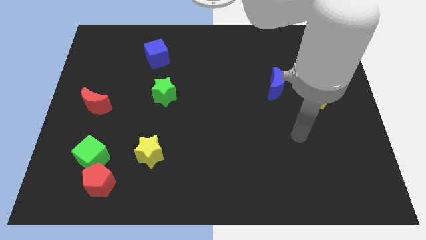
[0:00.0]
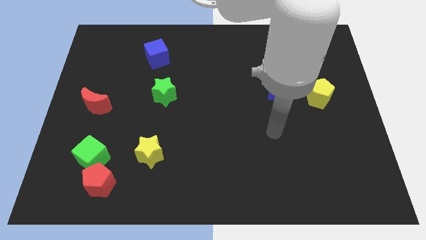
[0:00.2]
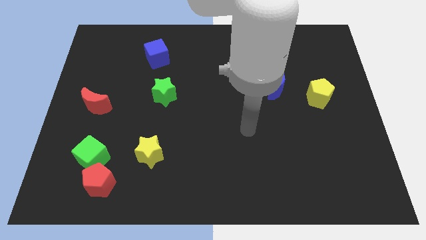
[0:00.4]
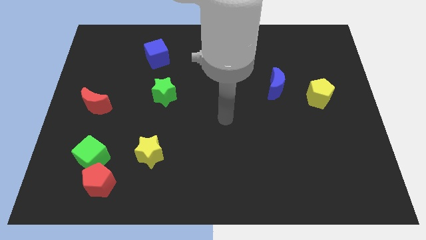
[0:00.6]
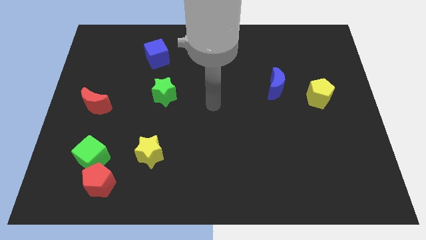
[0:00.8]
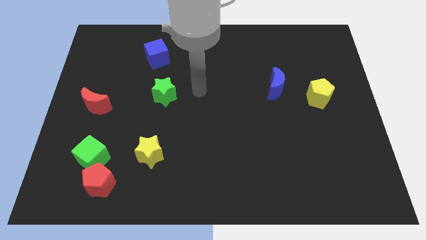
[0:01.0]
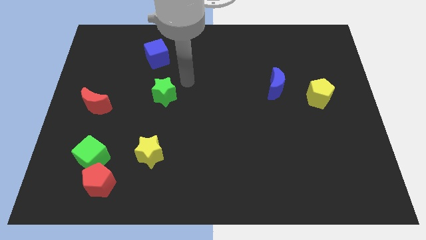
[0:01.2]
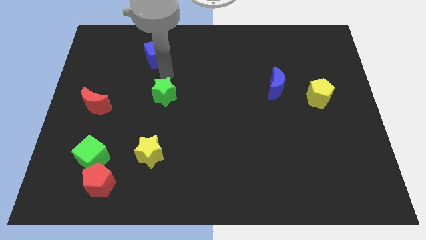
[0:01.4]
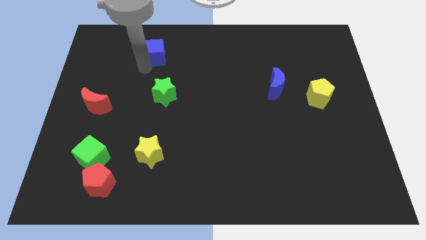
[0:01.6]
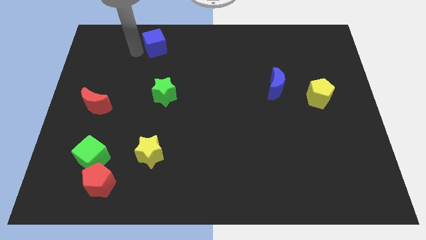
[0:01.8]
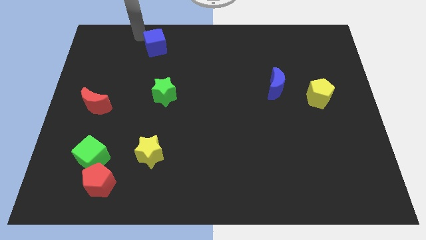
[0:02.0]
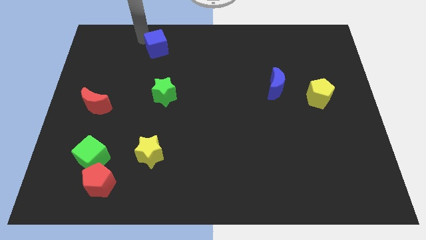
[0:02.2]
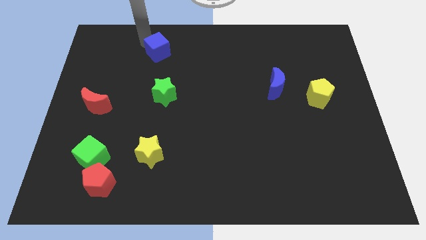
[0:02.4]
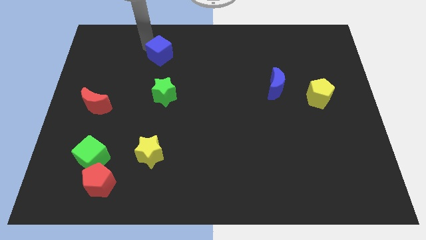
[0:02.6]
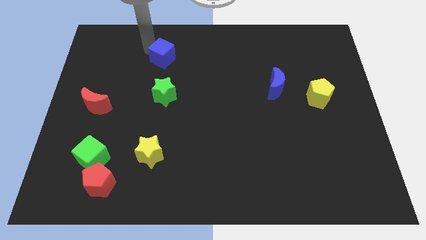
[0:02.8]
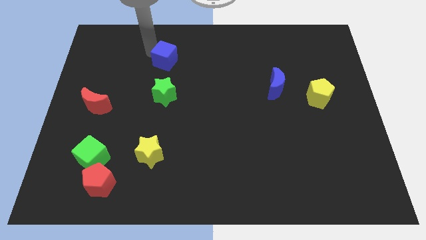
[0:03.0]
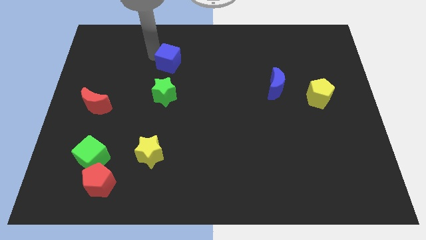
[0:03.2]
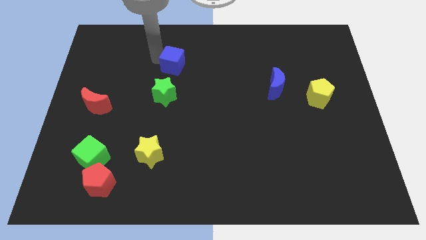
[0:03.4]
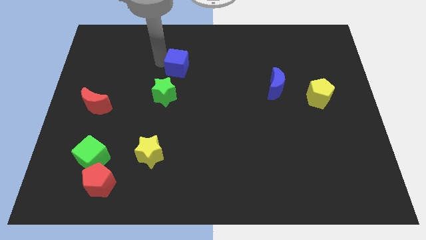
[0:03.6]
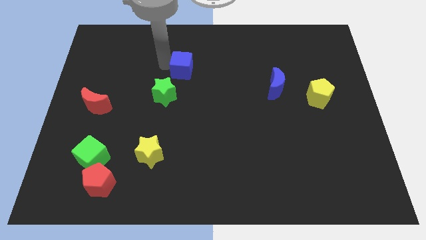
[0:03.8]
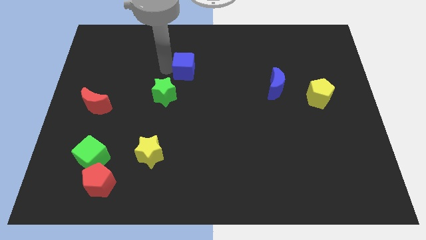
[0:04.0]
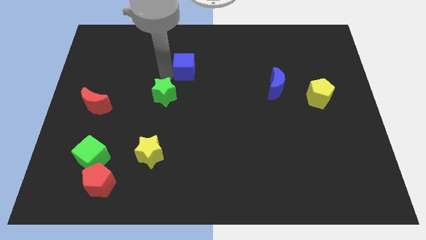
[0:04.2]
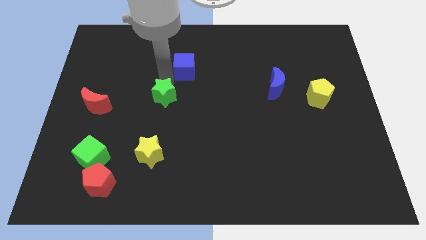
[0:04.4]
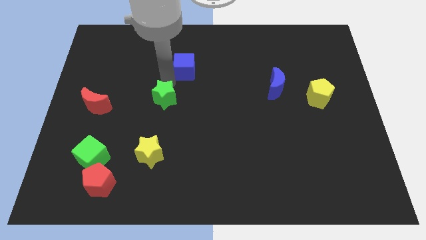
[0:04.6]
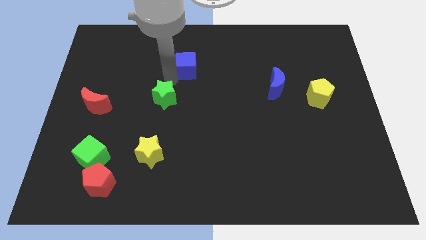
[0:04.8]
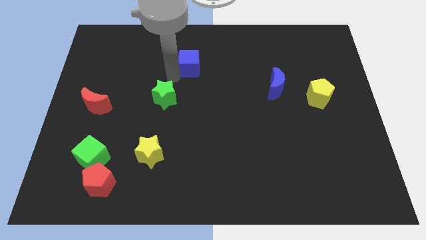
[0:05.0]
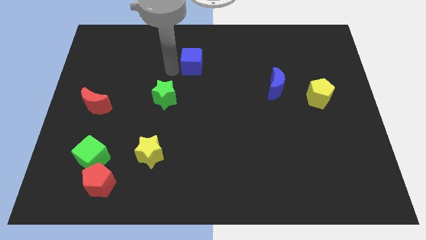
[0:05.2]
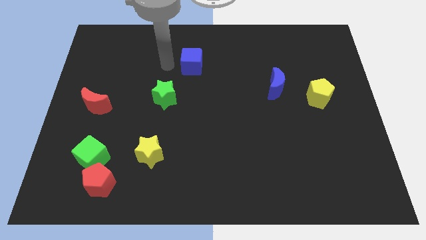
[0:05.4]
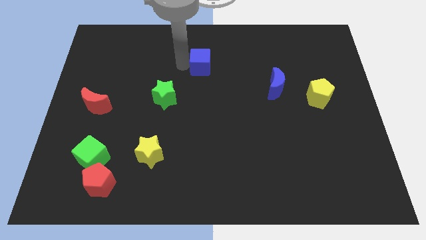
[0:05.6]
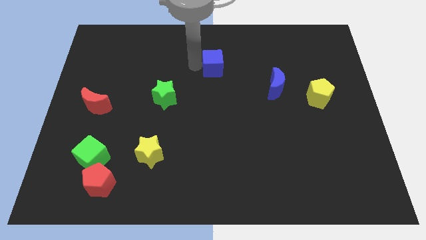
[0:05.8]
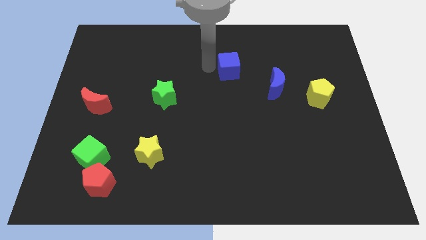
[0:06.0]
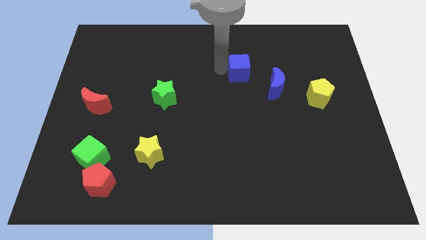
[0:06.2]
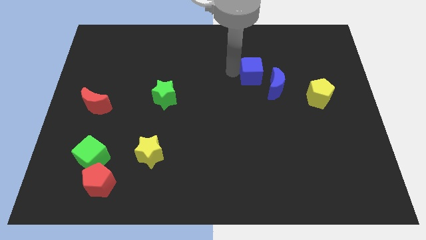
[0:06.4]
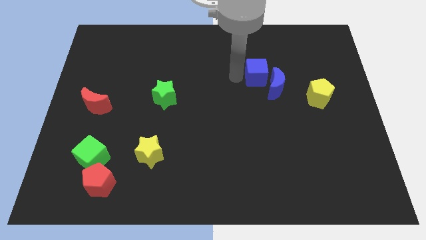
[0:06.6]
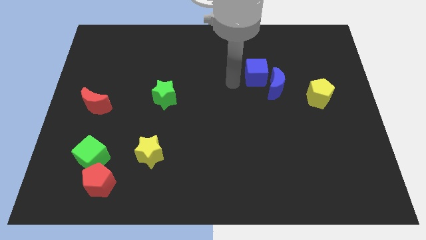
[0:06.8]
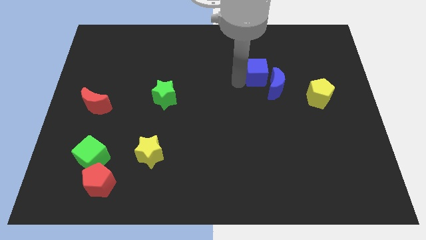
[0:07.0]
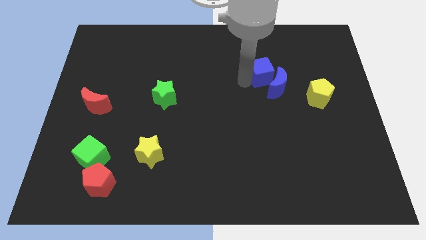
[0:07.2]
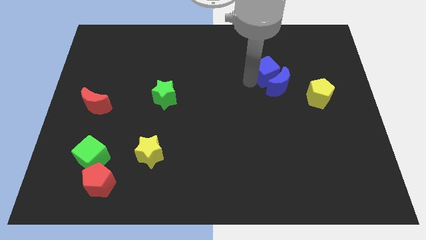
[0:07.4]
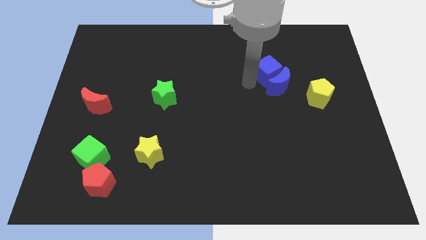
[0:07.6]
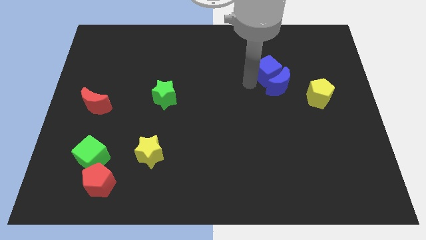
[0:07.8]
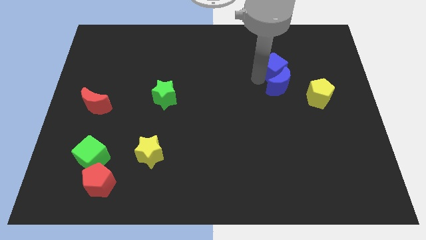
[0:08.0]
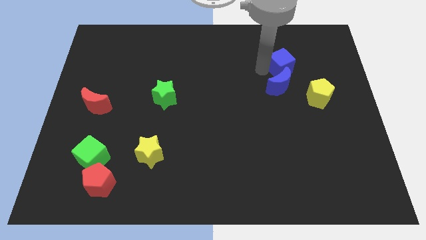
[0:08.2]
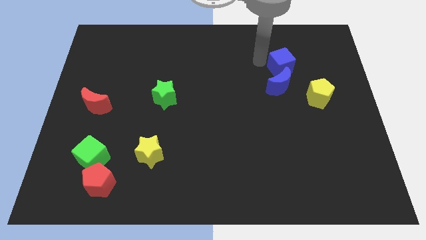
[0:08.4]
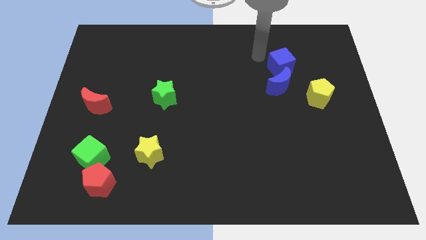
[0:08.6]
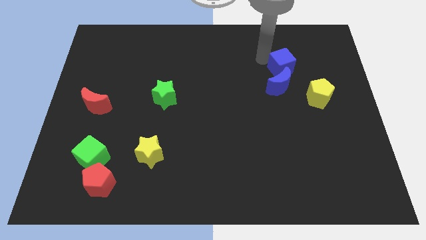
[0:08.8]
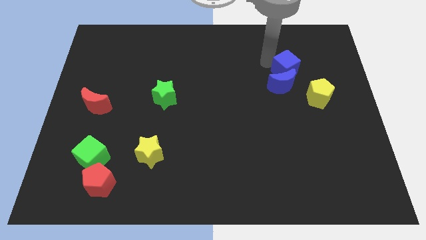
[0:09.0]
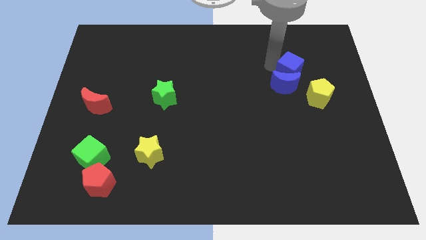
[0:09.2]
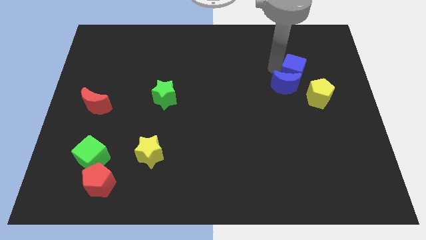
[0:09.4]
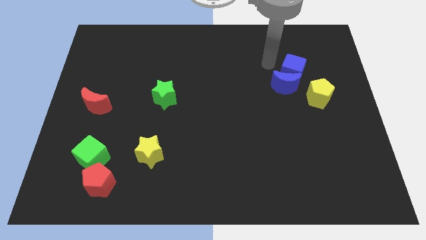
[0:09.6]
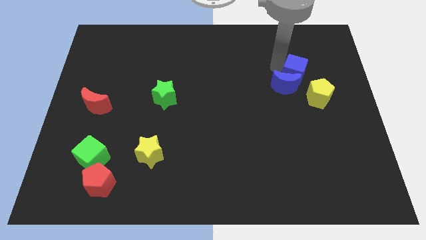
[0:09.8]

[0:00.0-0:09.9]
push the blue cube right of the blue moon

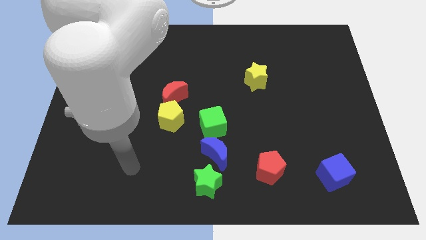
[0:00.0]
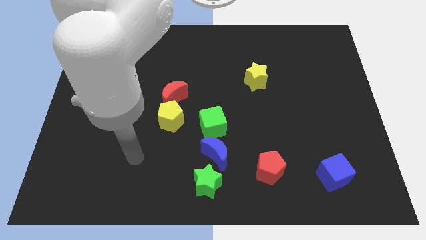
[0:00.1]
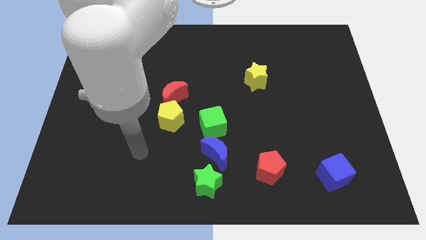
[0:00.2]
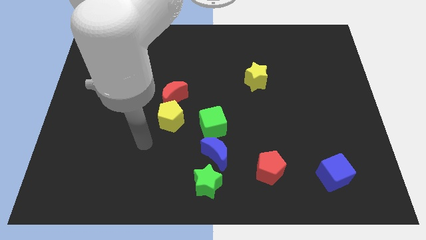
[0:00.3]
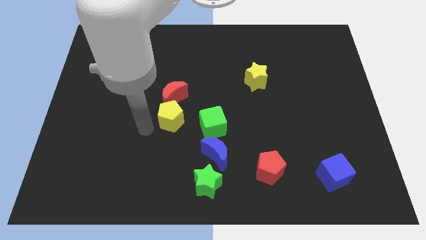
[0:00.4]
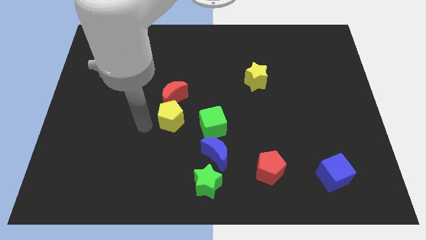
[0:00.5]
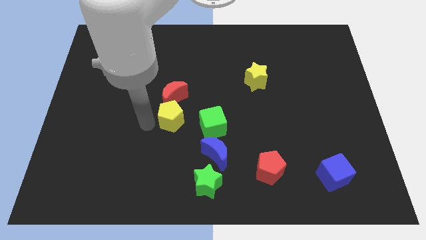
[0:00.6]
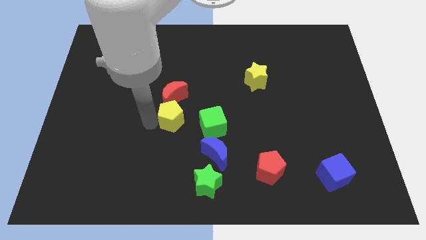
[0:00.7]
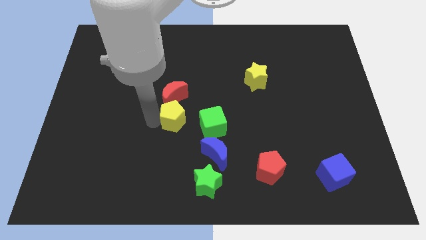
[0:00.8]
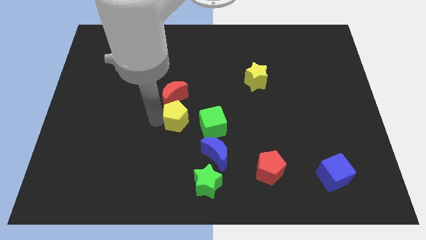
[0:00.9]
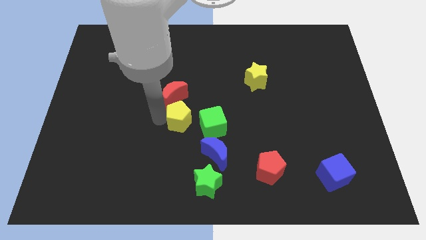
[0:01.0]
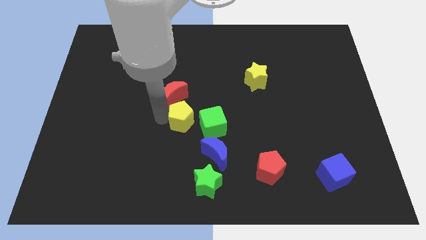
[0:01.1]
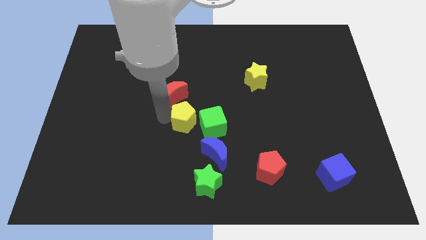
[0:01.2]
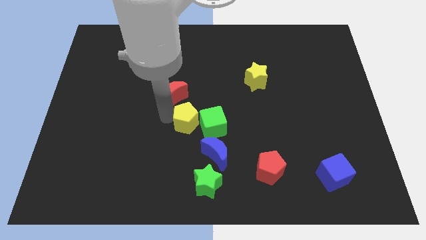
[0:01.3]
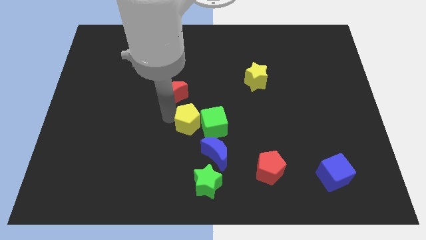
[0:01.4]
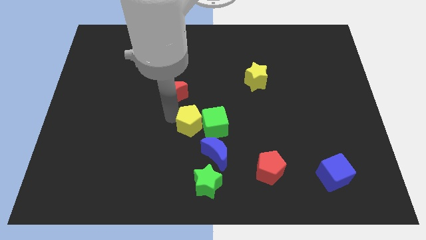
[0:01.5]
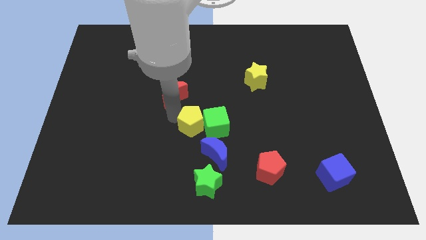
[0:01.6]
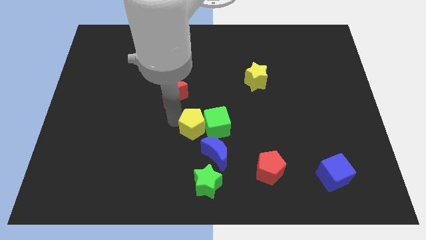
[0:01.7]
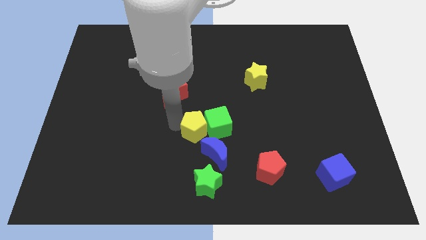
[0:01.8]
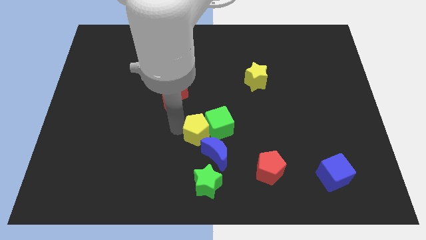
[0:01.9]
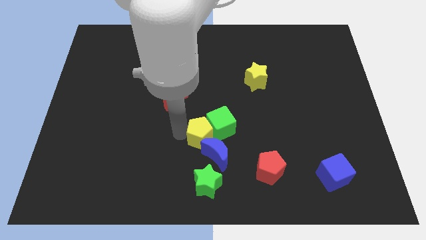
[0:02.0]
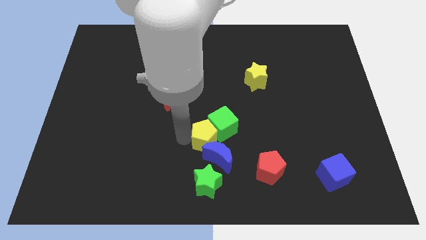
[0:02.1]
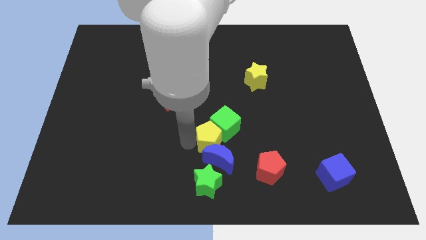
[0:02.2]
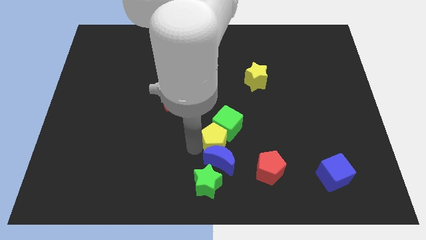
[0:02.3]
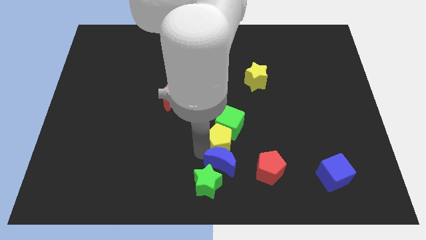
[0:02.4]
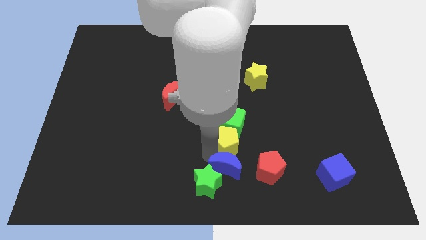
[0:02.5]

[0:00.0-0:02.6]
move the yellow pentagon to the bottom right side of the green cube
